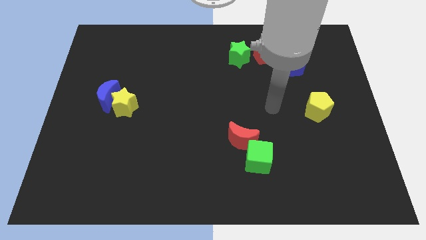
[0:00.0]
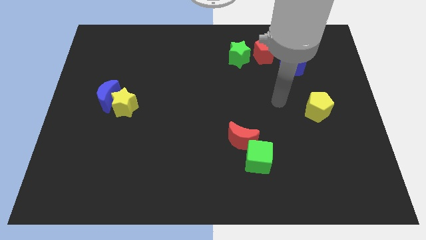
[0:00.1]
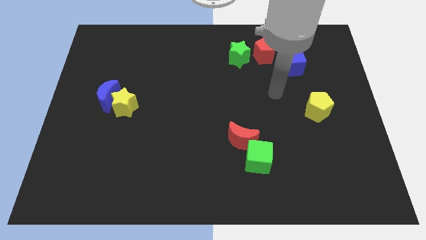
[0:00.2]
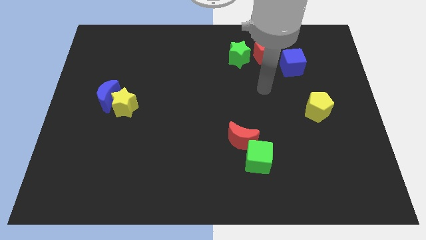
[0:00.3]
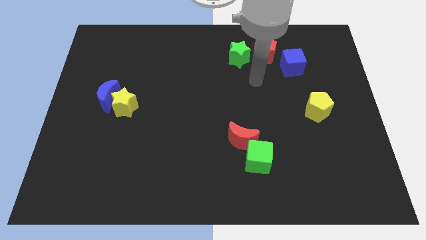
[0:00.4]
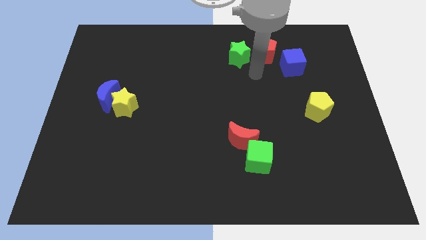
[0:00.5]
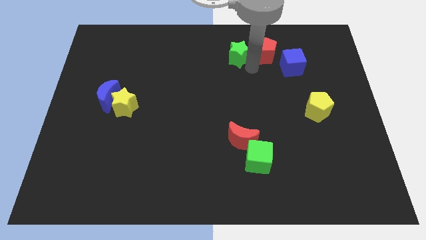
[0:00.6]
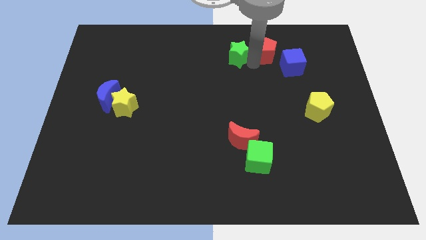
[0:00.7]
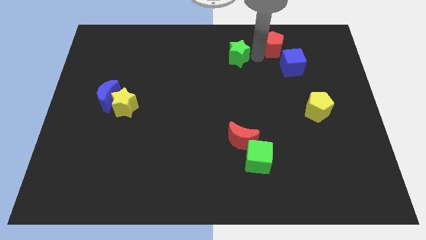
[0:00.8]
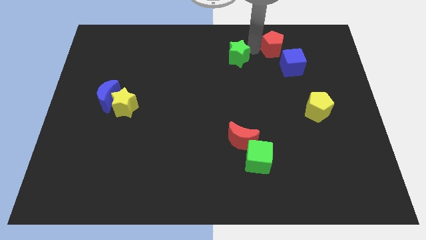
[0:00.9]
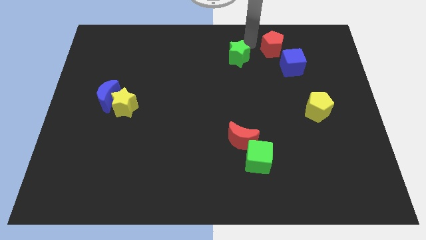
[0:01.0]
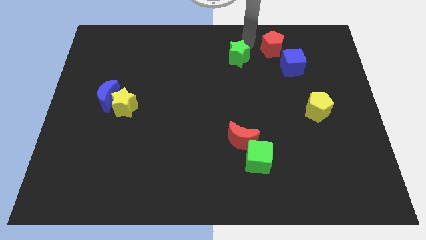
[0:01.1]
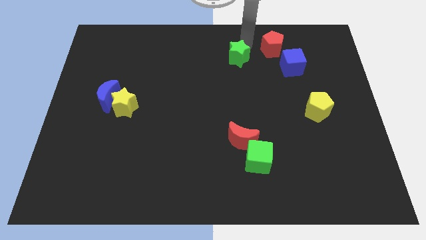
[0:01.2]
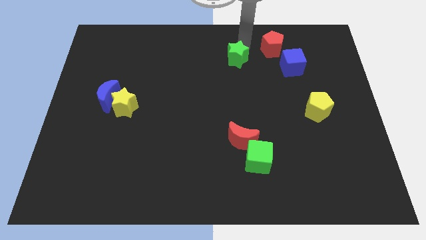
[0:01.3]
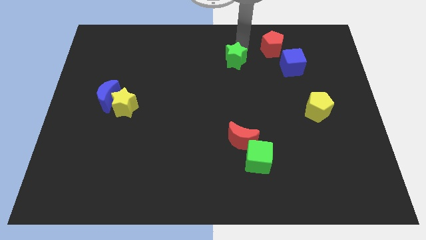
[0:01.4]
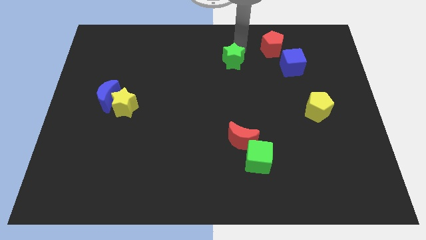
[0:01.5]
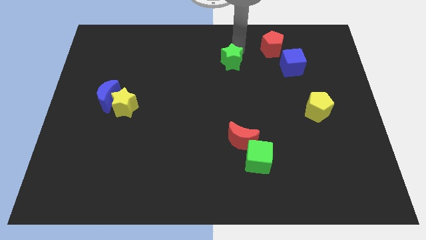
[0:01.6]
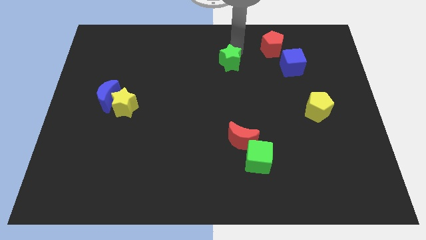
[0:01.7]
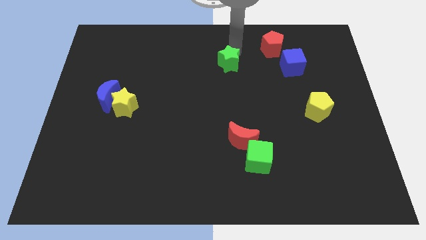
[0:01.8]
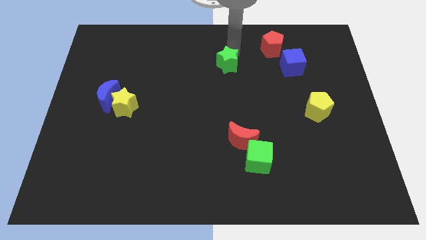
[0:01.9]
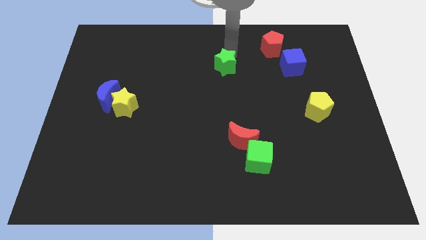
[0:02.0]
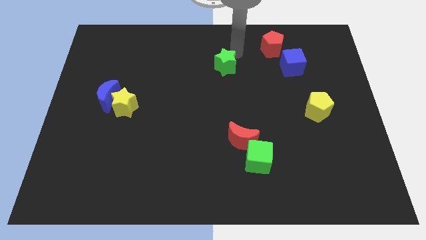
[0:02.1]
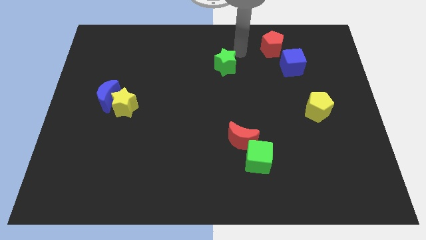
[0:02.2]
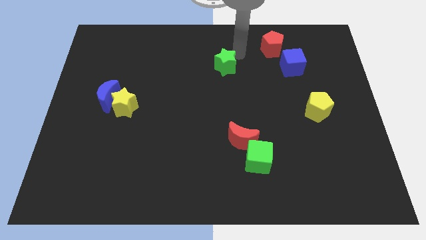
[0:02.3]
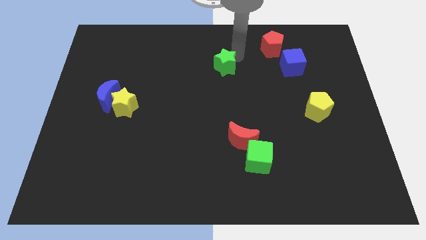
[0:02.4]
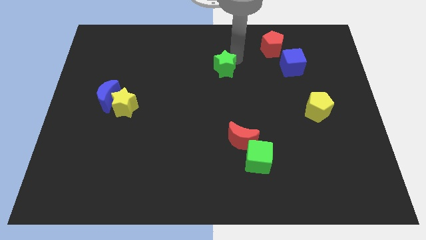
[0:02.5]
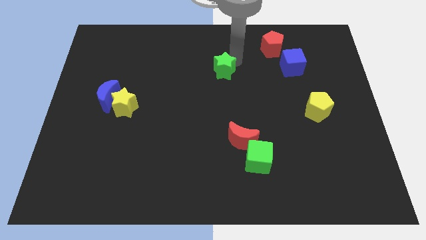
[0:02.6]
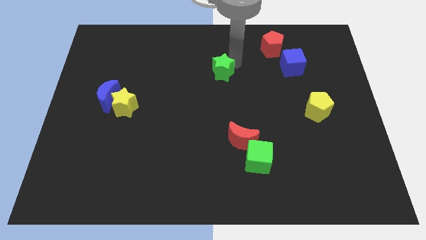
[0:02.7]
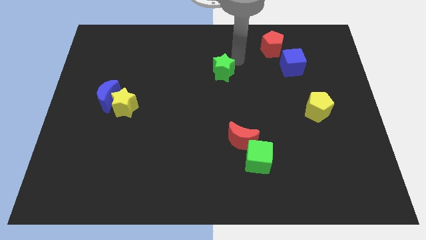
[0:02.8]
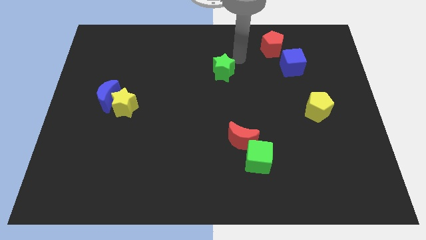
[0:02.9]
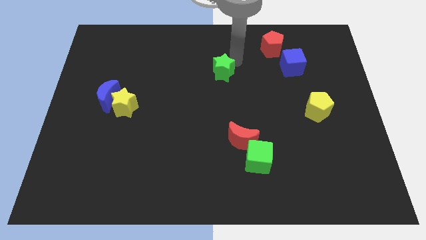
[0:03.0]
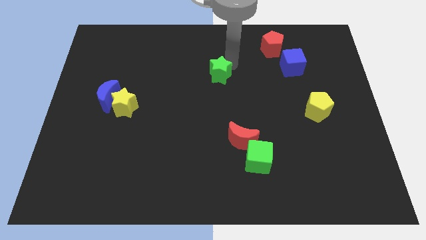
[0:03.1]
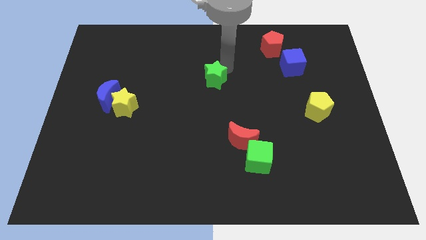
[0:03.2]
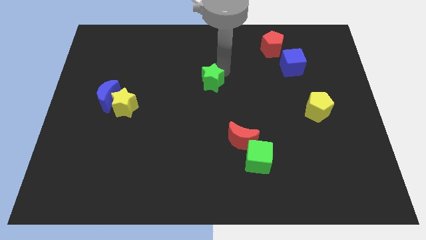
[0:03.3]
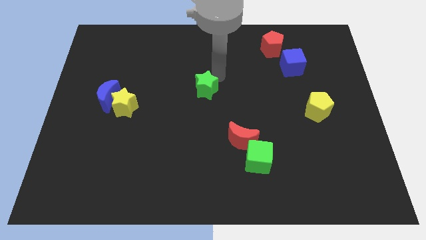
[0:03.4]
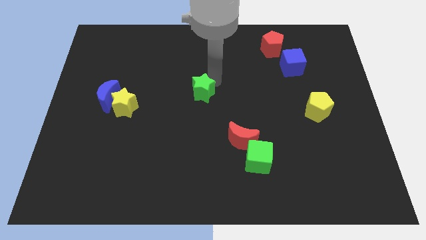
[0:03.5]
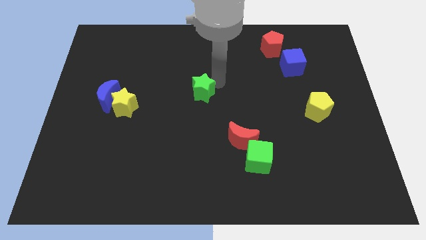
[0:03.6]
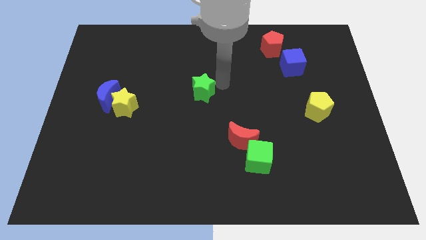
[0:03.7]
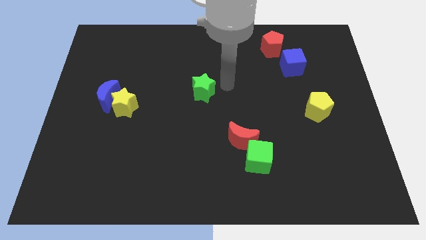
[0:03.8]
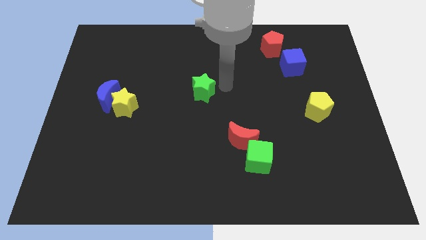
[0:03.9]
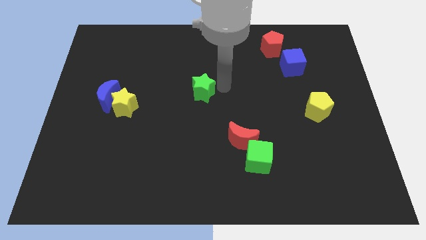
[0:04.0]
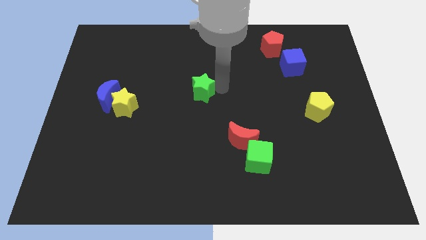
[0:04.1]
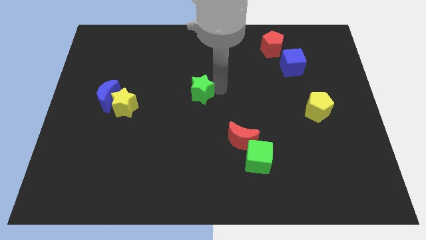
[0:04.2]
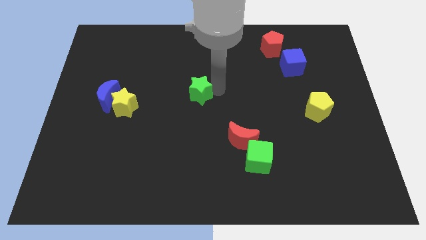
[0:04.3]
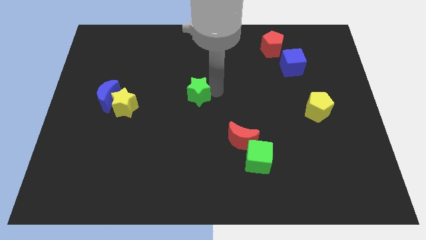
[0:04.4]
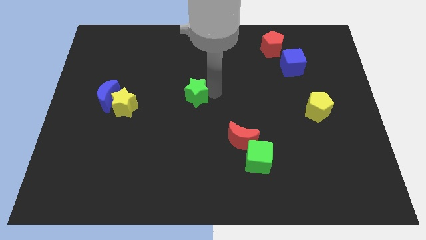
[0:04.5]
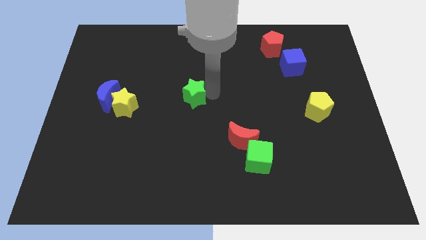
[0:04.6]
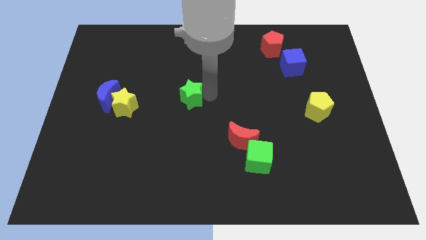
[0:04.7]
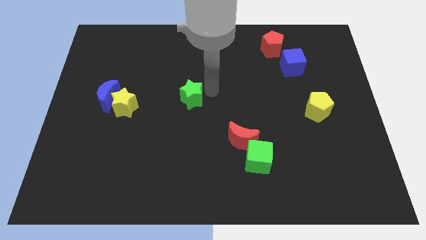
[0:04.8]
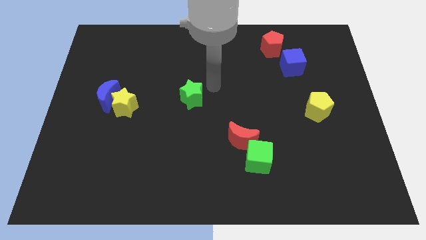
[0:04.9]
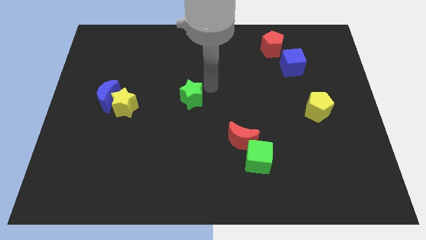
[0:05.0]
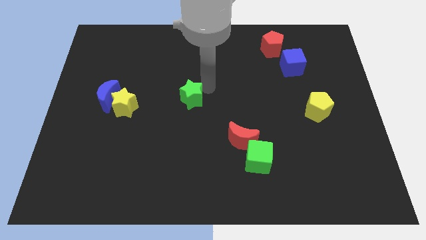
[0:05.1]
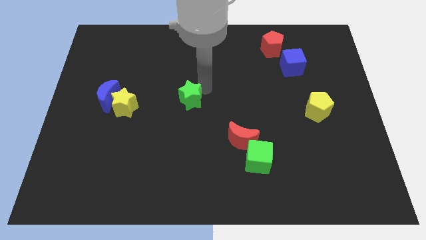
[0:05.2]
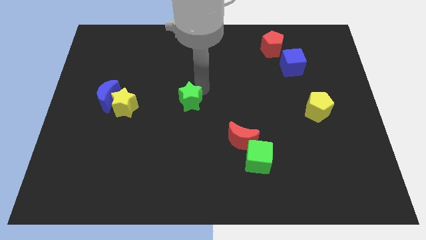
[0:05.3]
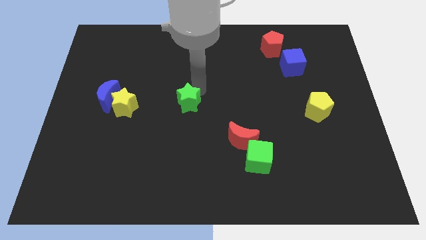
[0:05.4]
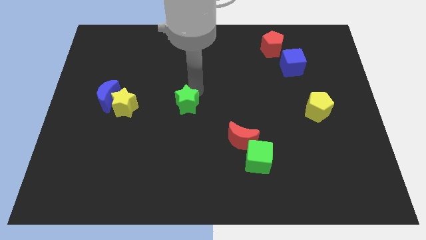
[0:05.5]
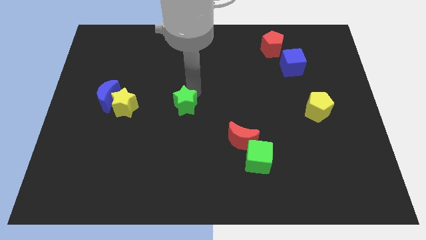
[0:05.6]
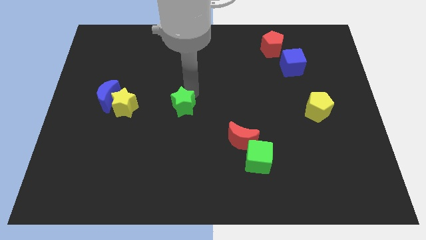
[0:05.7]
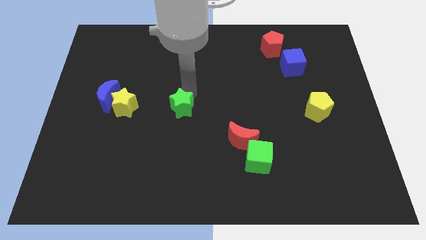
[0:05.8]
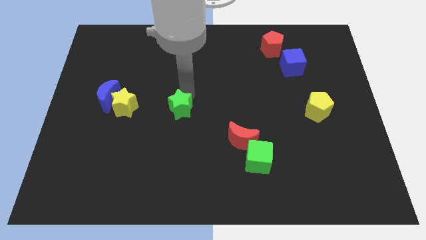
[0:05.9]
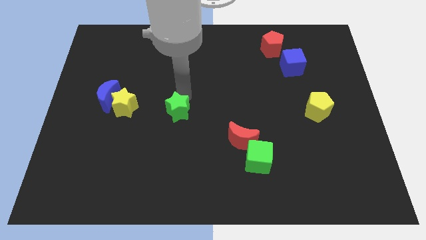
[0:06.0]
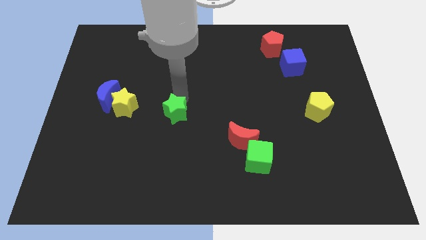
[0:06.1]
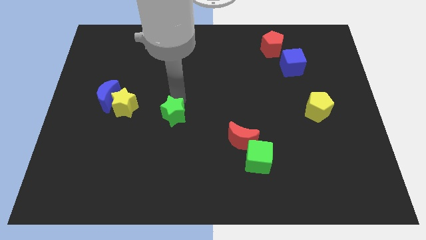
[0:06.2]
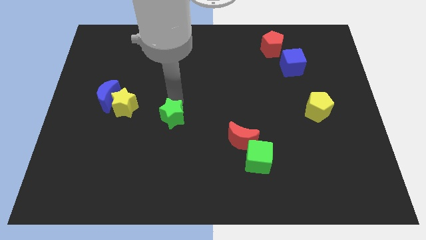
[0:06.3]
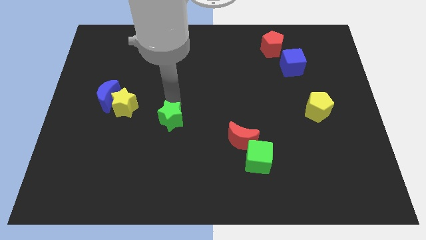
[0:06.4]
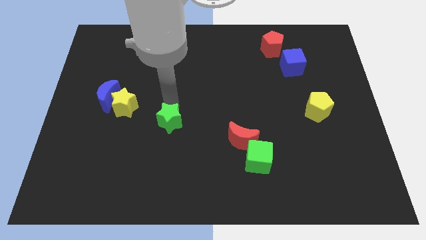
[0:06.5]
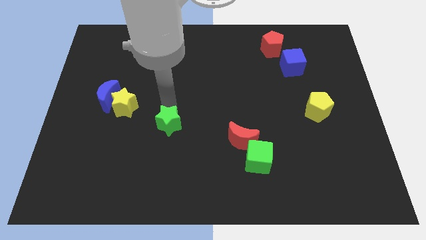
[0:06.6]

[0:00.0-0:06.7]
put the green star to the bottom right of the yellow star

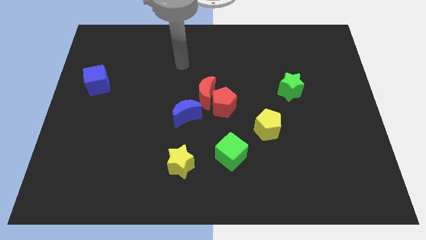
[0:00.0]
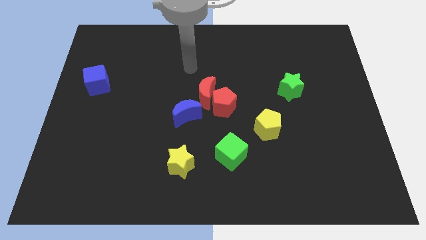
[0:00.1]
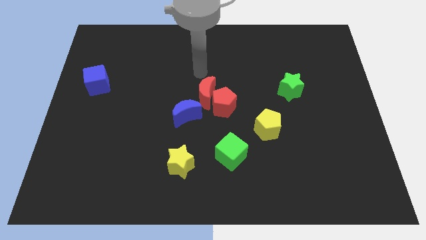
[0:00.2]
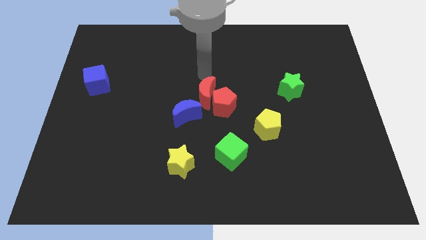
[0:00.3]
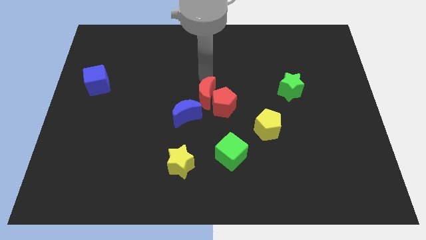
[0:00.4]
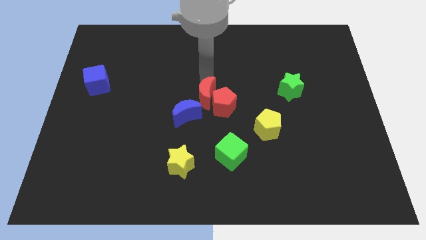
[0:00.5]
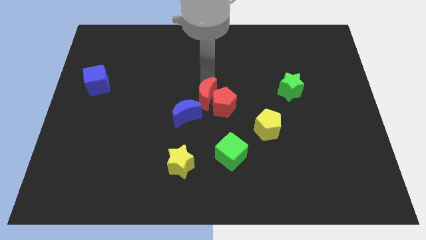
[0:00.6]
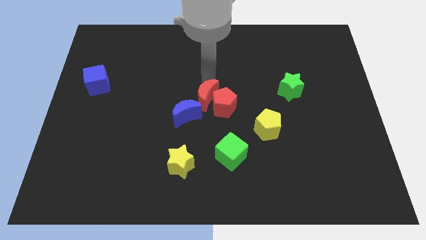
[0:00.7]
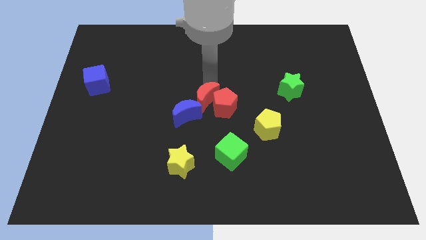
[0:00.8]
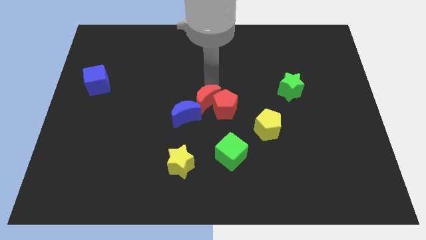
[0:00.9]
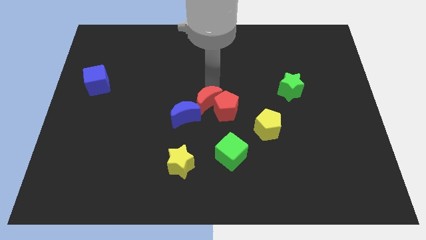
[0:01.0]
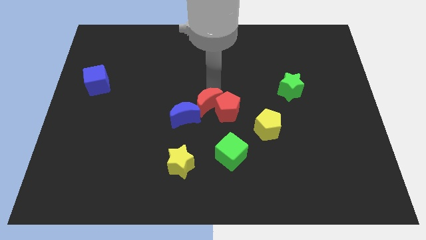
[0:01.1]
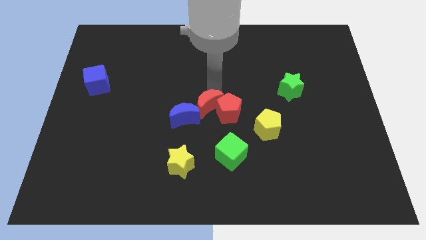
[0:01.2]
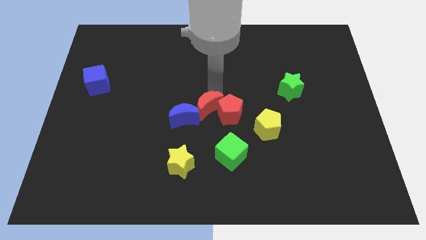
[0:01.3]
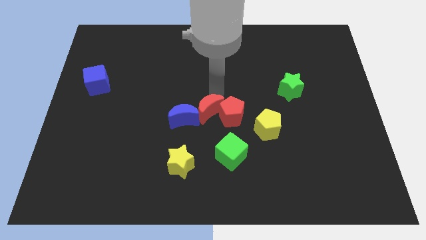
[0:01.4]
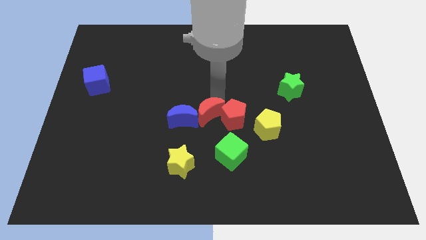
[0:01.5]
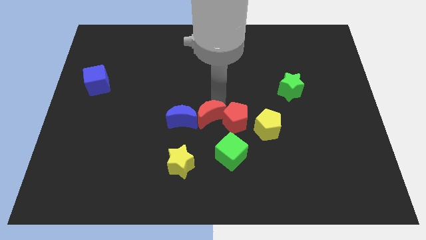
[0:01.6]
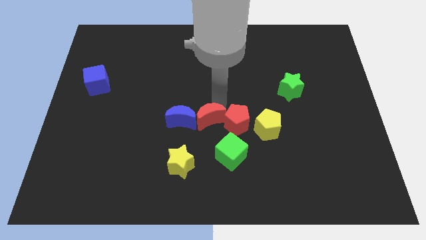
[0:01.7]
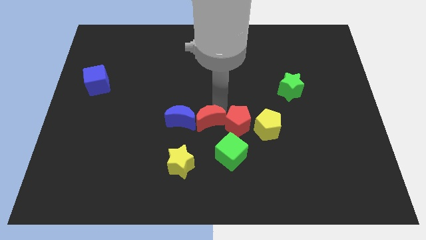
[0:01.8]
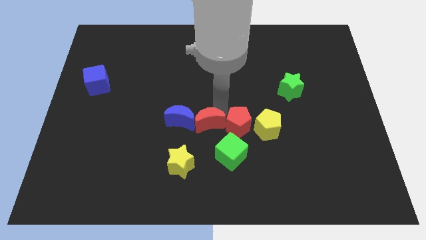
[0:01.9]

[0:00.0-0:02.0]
move the red moon diagonally up and to the right of the yellow star
